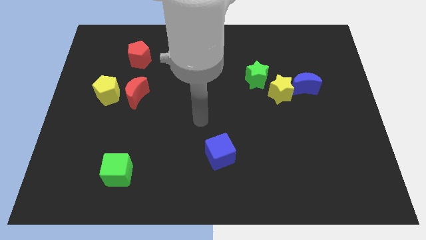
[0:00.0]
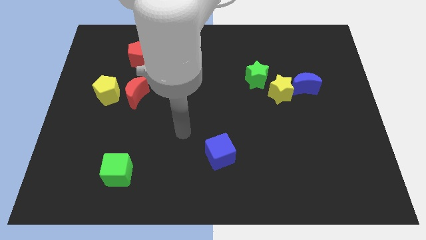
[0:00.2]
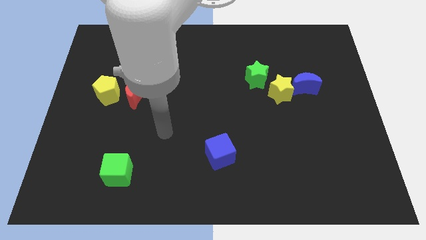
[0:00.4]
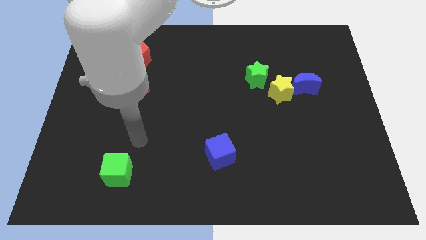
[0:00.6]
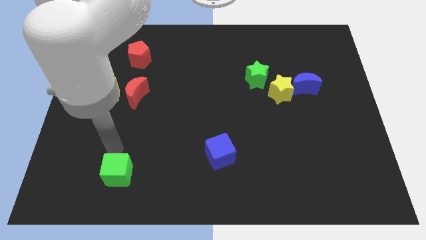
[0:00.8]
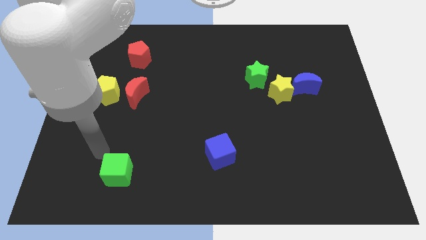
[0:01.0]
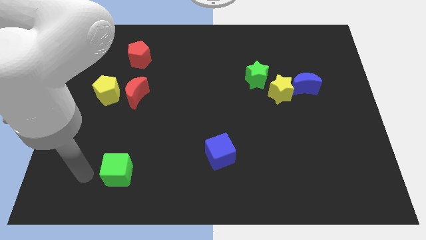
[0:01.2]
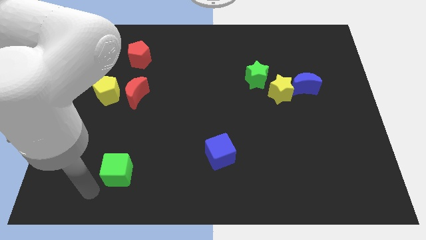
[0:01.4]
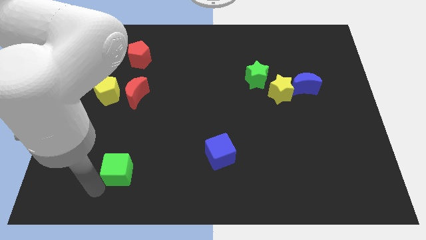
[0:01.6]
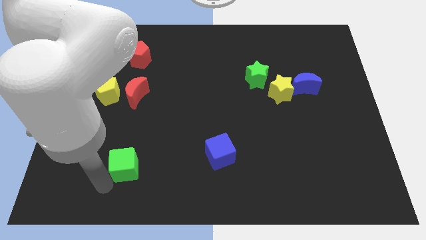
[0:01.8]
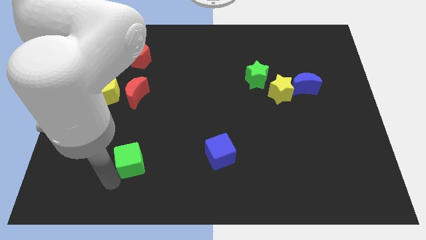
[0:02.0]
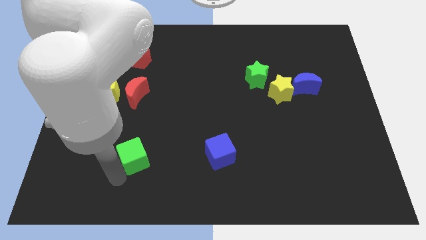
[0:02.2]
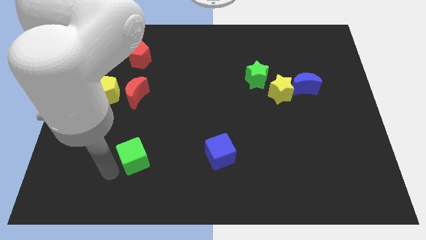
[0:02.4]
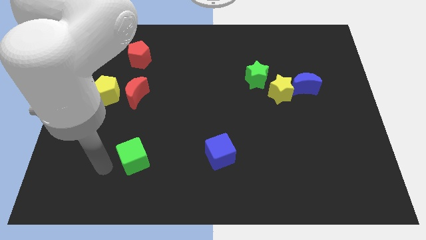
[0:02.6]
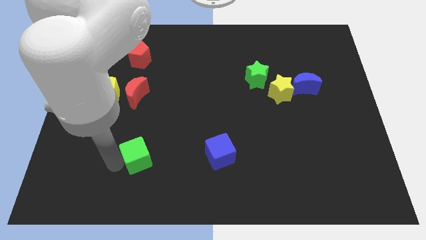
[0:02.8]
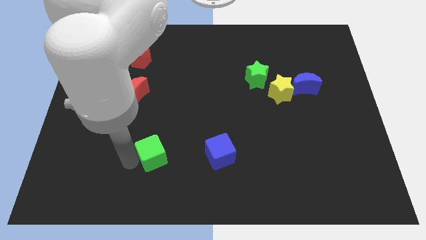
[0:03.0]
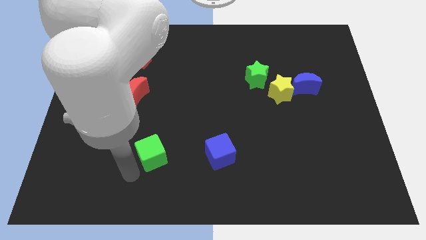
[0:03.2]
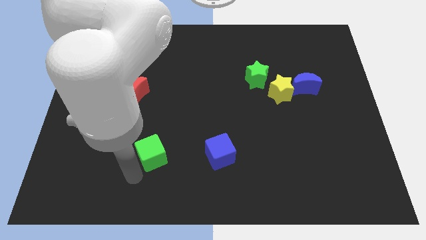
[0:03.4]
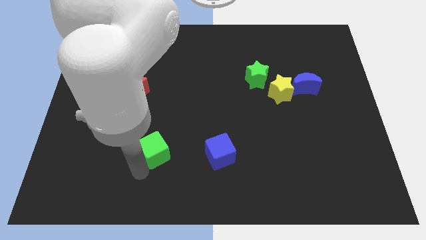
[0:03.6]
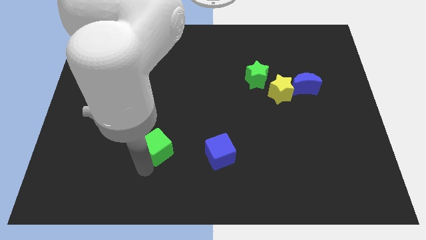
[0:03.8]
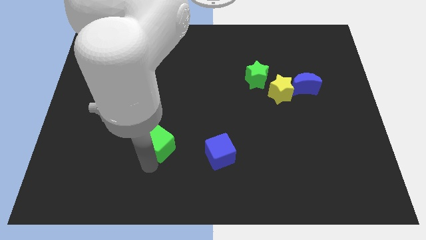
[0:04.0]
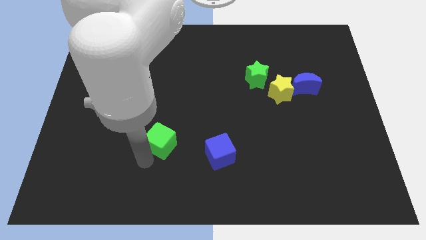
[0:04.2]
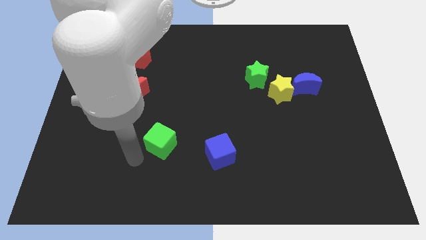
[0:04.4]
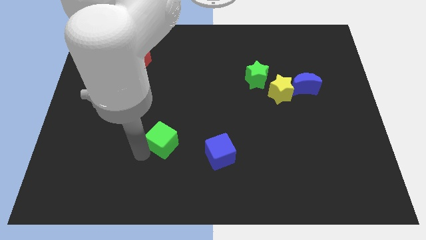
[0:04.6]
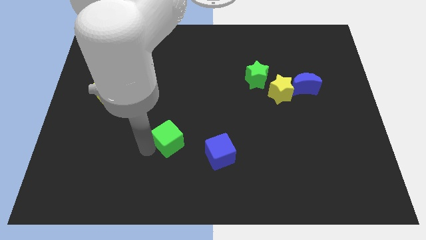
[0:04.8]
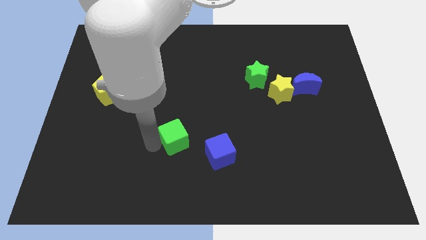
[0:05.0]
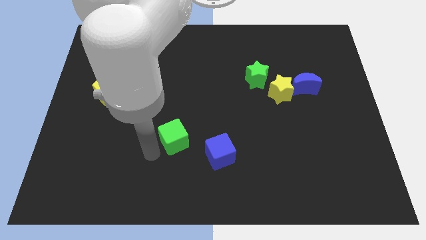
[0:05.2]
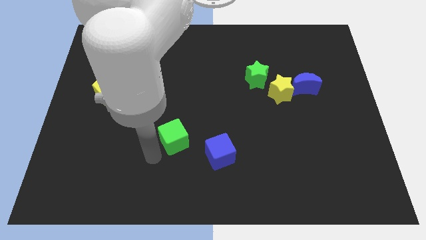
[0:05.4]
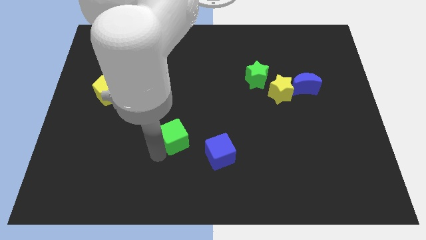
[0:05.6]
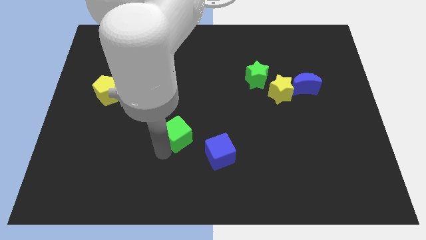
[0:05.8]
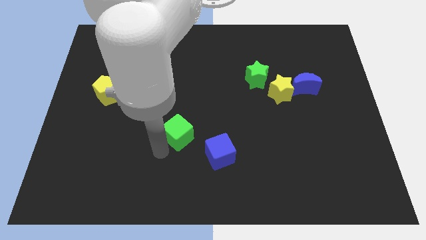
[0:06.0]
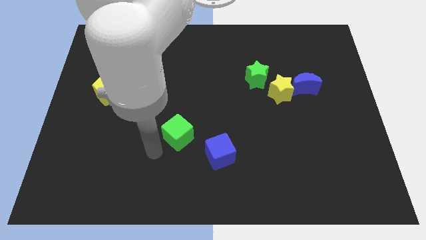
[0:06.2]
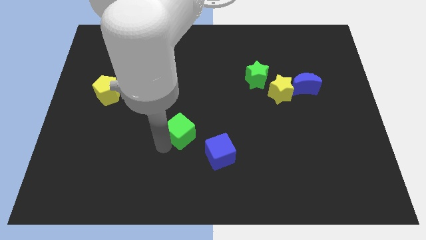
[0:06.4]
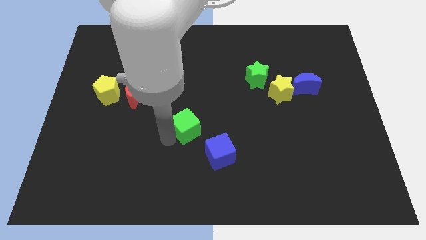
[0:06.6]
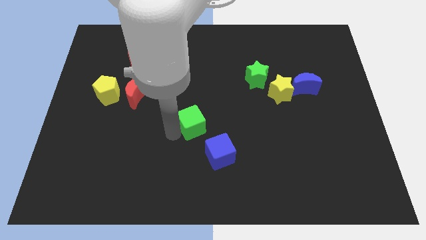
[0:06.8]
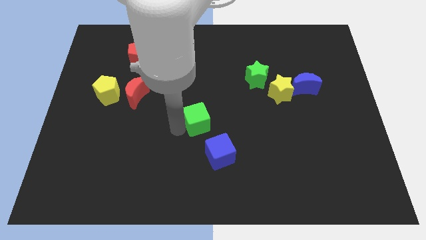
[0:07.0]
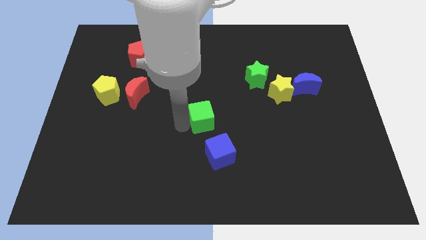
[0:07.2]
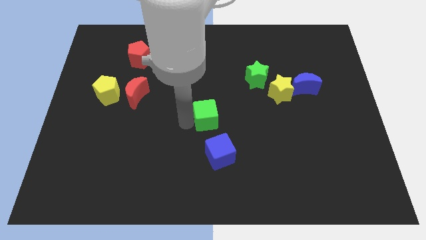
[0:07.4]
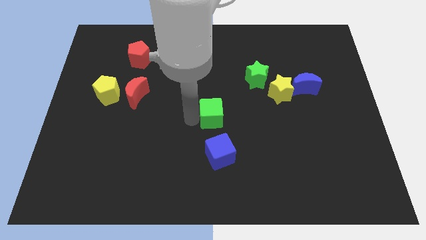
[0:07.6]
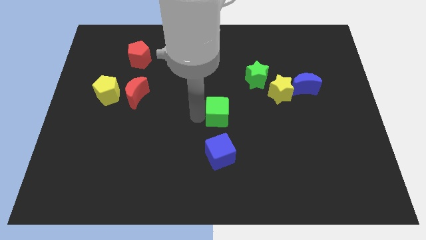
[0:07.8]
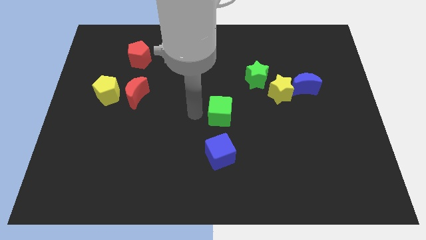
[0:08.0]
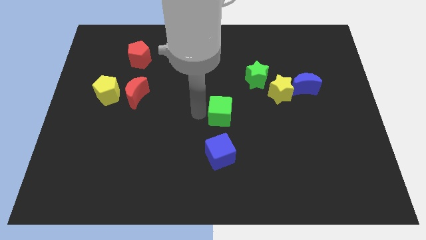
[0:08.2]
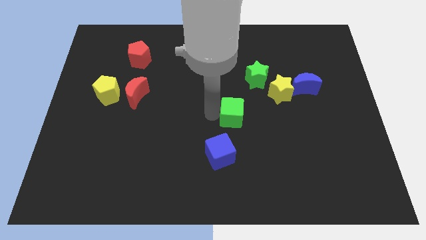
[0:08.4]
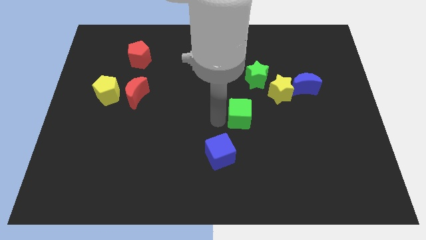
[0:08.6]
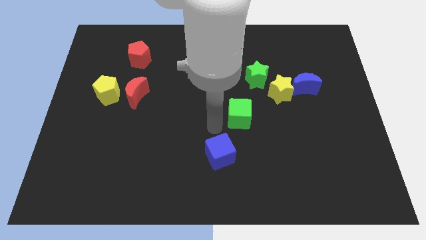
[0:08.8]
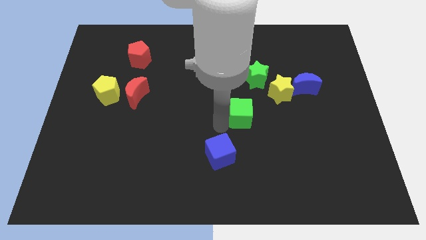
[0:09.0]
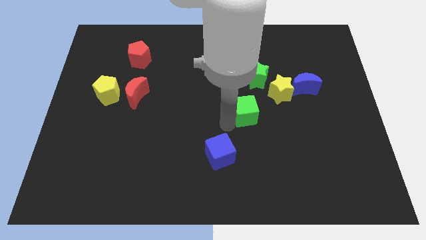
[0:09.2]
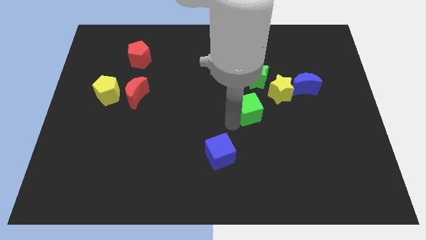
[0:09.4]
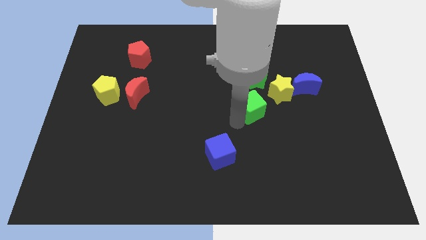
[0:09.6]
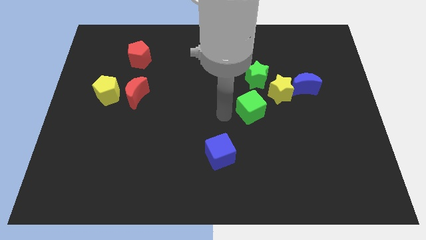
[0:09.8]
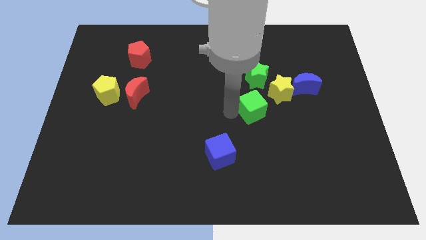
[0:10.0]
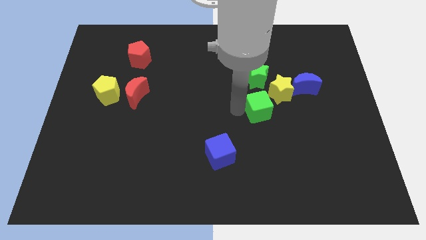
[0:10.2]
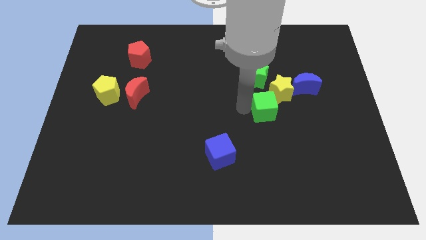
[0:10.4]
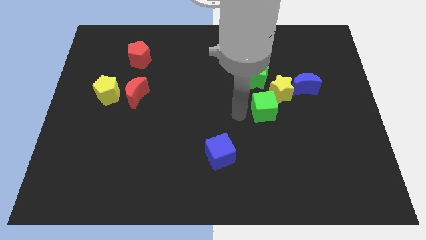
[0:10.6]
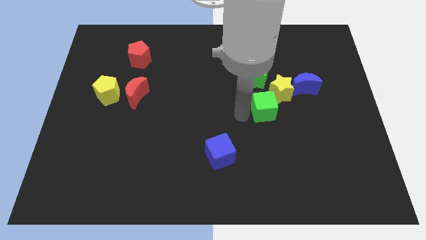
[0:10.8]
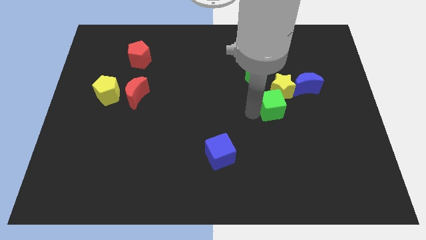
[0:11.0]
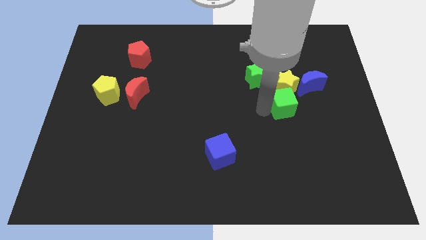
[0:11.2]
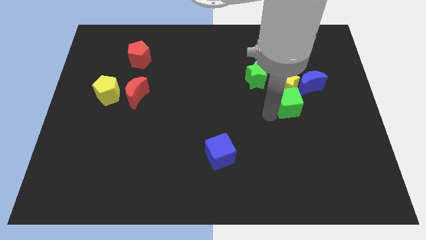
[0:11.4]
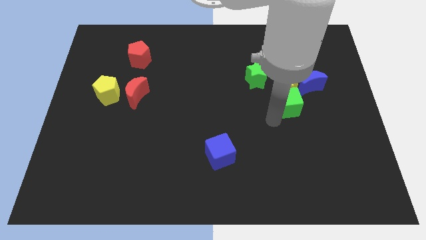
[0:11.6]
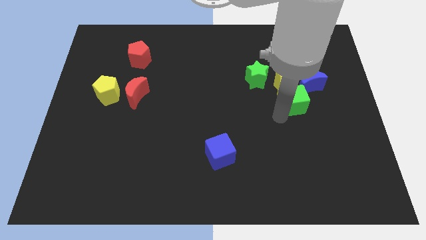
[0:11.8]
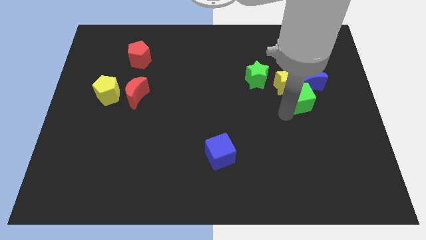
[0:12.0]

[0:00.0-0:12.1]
push the green cube to the blue moon

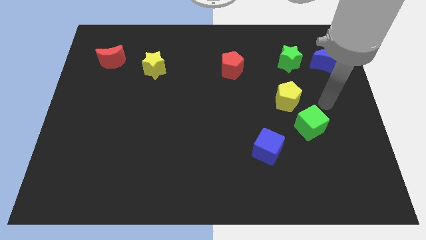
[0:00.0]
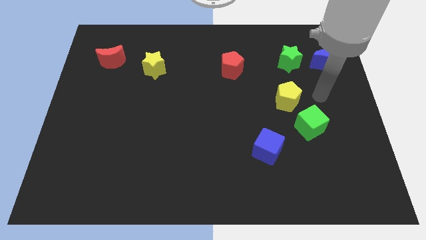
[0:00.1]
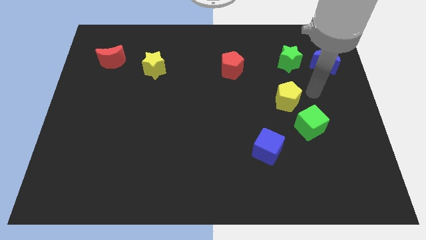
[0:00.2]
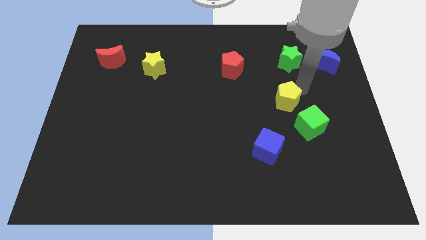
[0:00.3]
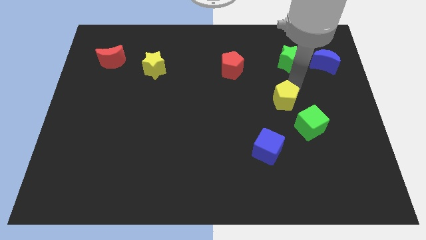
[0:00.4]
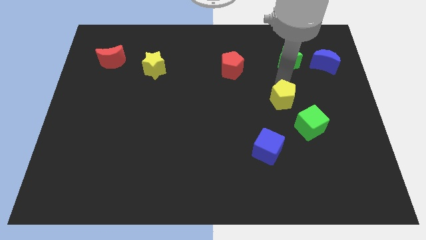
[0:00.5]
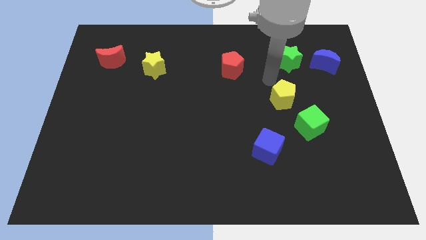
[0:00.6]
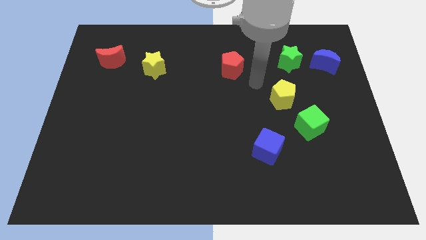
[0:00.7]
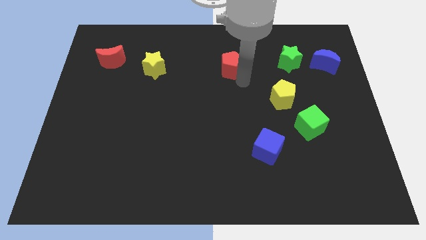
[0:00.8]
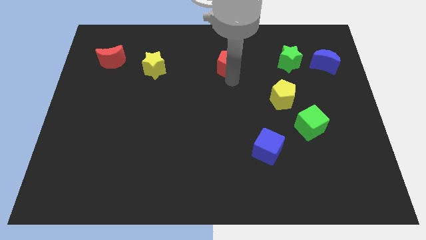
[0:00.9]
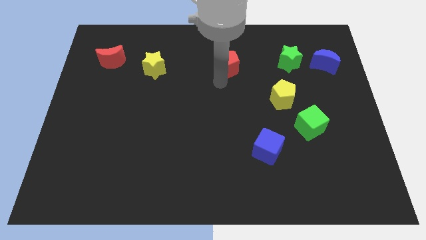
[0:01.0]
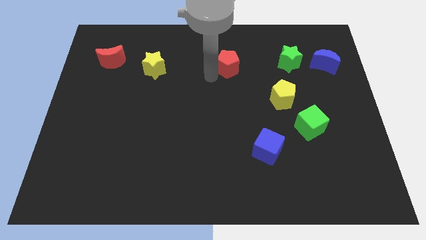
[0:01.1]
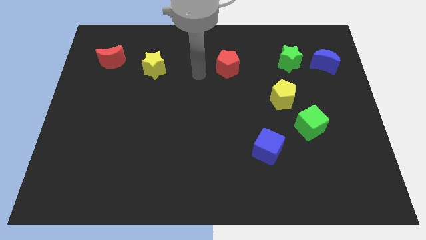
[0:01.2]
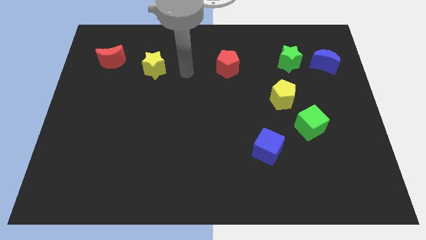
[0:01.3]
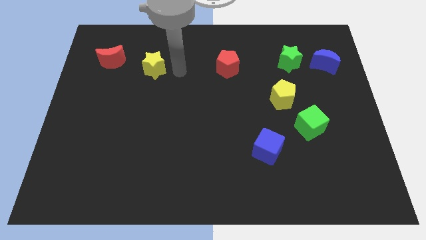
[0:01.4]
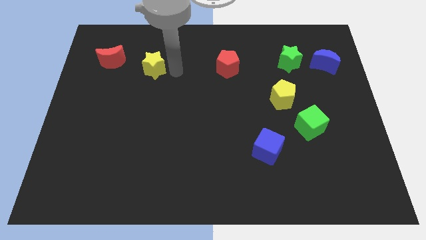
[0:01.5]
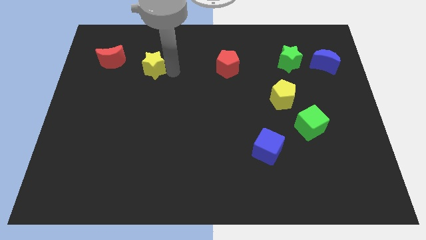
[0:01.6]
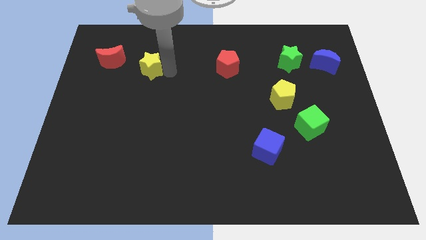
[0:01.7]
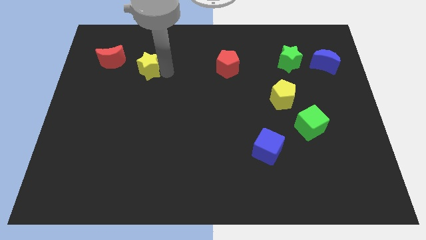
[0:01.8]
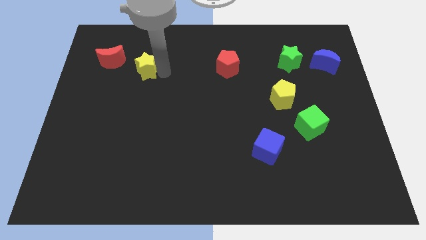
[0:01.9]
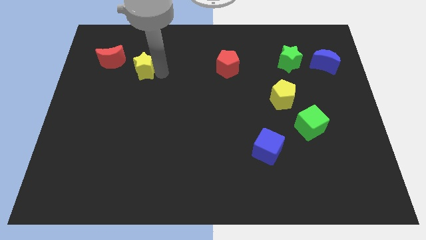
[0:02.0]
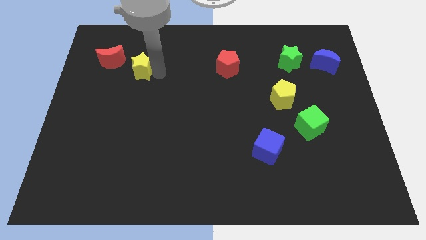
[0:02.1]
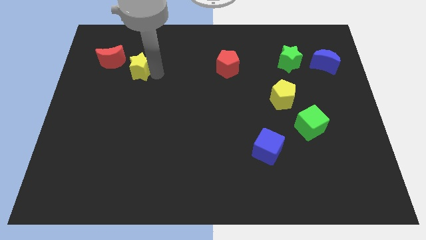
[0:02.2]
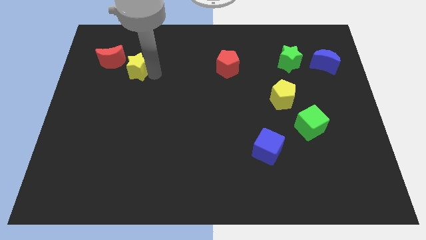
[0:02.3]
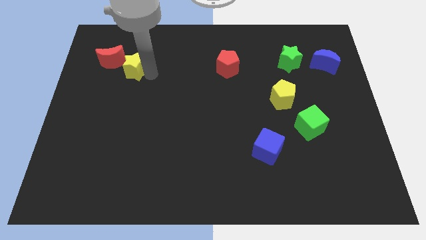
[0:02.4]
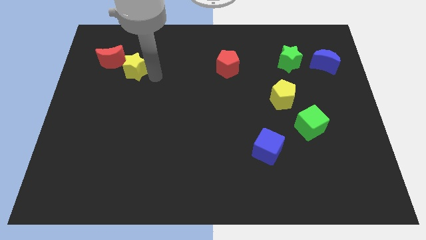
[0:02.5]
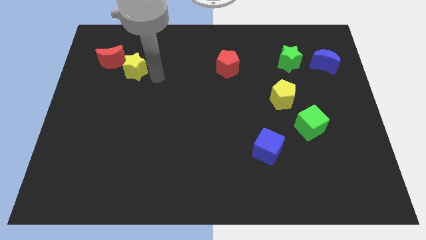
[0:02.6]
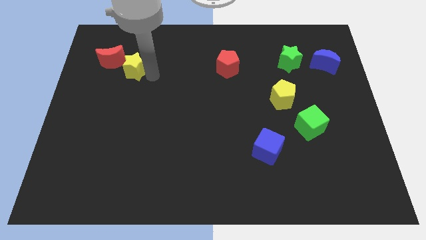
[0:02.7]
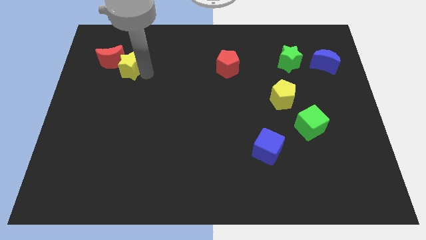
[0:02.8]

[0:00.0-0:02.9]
slide the yellow star towards the red moon
